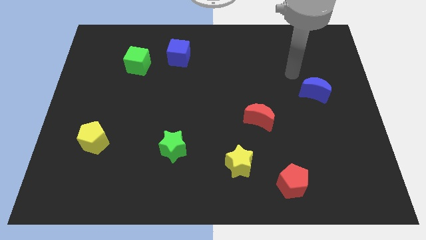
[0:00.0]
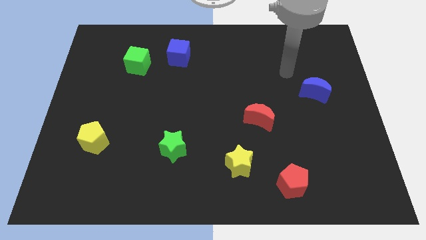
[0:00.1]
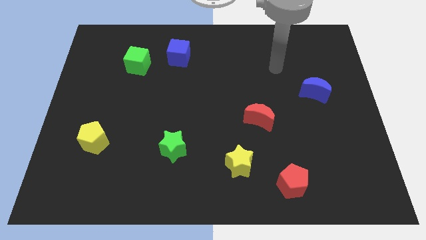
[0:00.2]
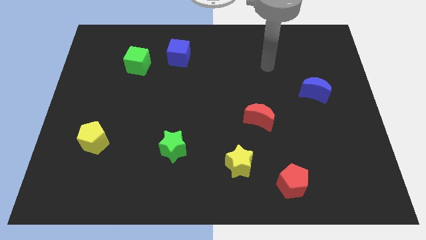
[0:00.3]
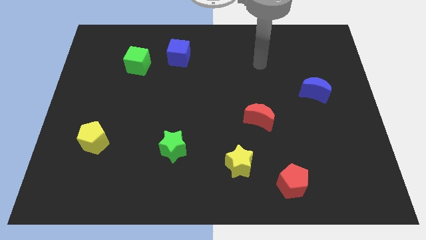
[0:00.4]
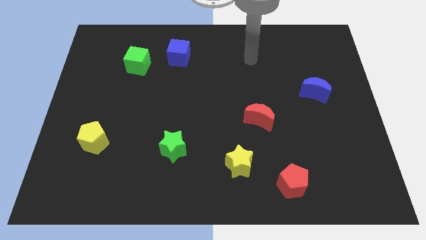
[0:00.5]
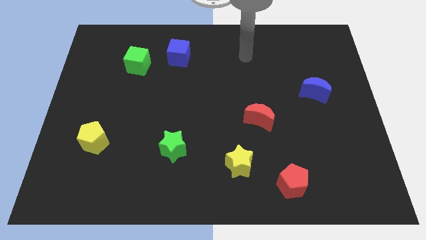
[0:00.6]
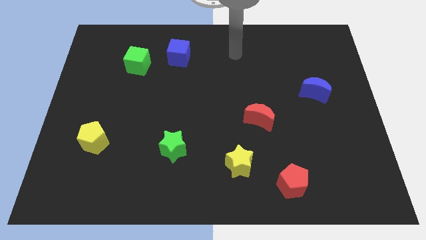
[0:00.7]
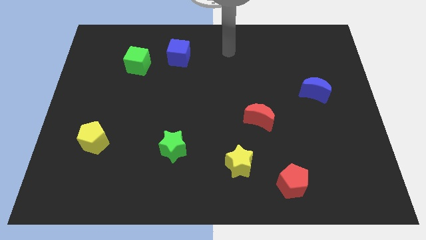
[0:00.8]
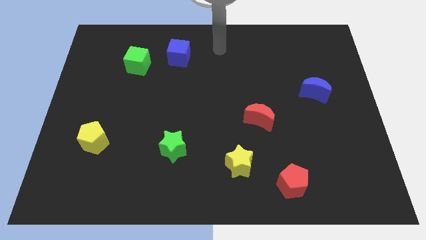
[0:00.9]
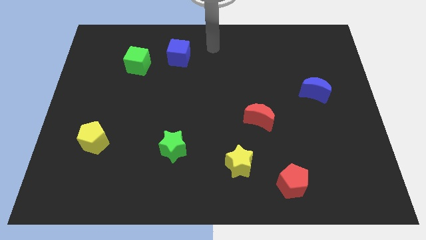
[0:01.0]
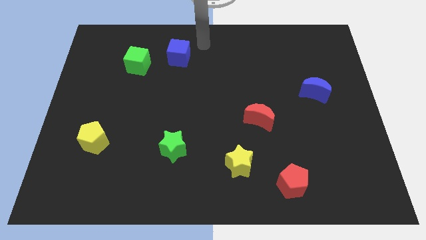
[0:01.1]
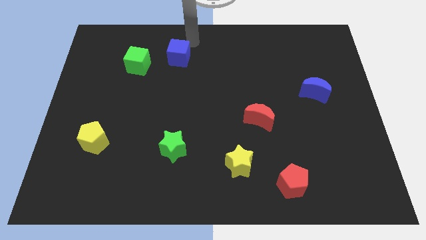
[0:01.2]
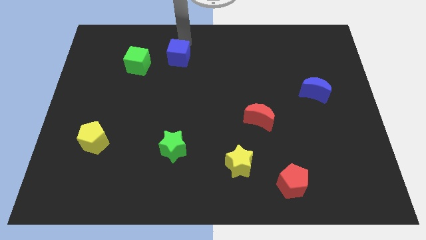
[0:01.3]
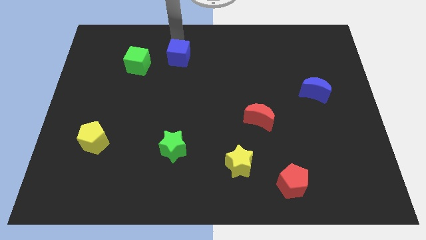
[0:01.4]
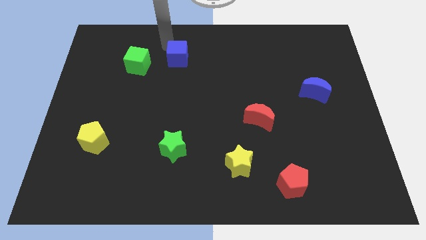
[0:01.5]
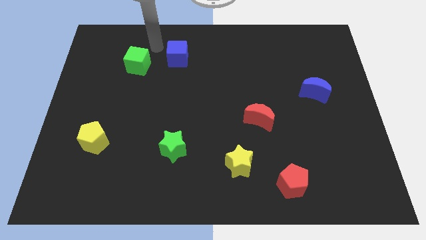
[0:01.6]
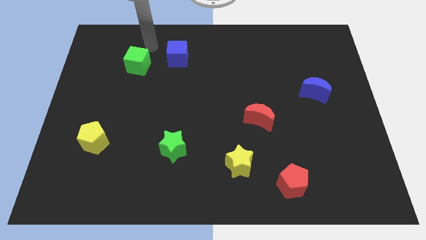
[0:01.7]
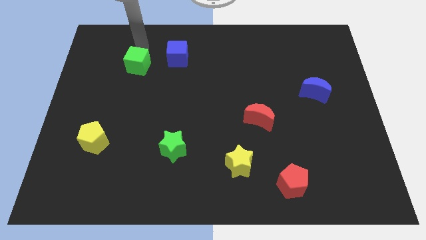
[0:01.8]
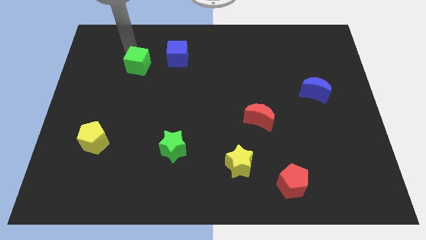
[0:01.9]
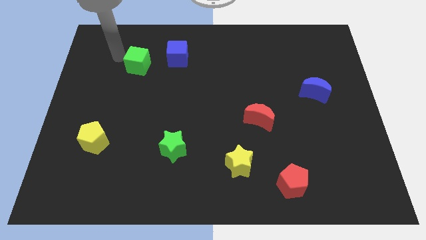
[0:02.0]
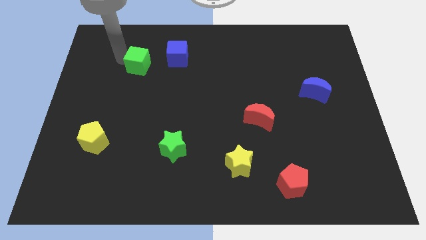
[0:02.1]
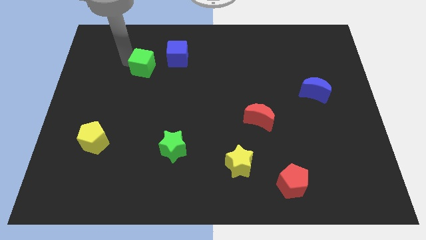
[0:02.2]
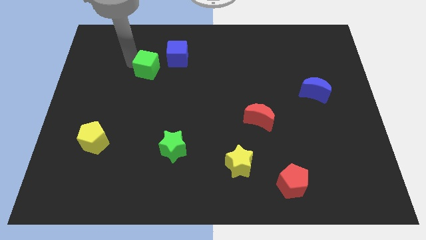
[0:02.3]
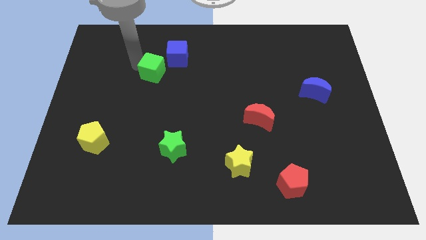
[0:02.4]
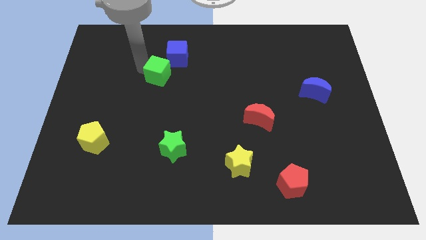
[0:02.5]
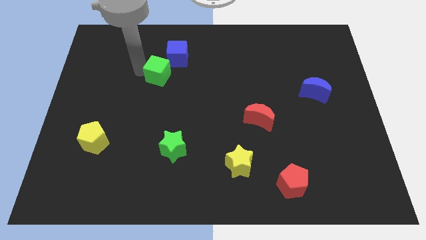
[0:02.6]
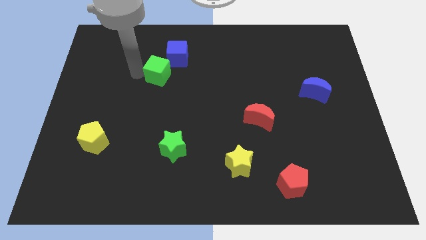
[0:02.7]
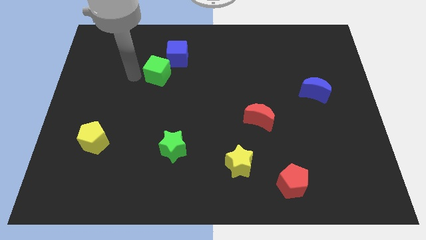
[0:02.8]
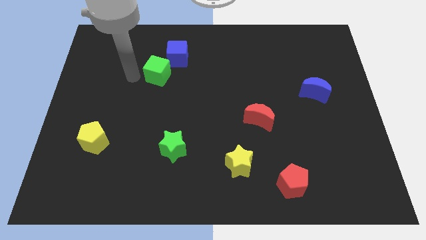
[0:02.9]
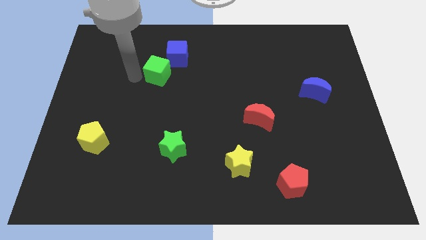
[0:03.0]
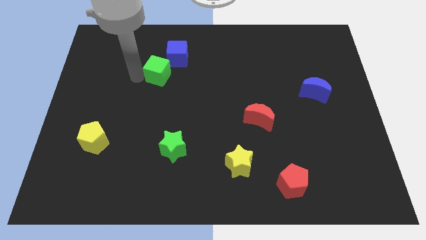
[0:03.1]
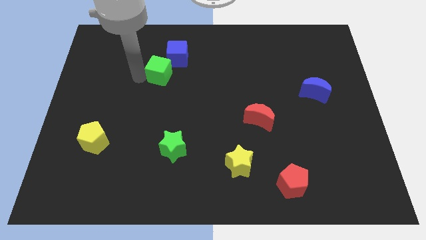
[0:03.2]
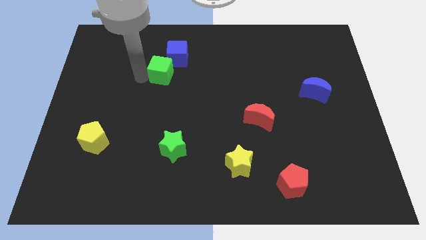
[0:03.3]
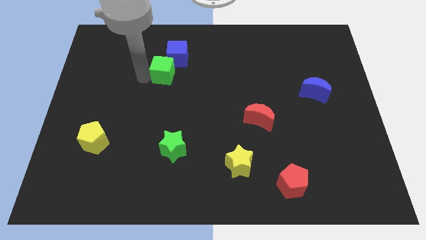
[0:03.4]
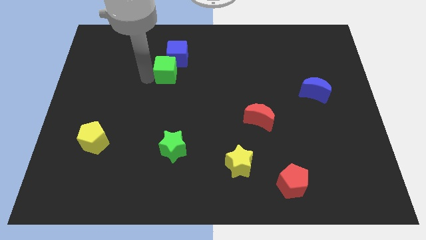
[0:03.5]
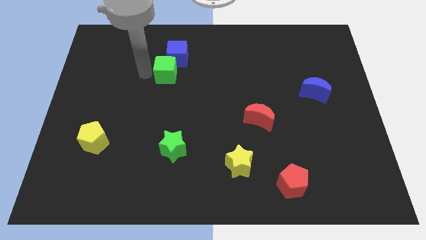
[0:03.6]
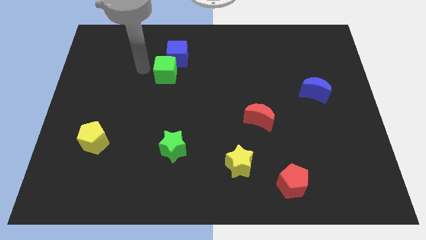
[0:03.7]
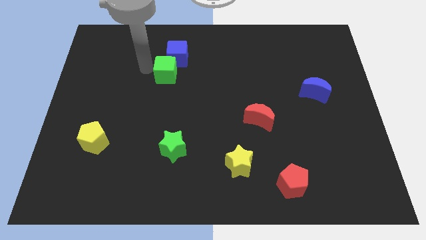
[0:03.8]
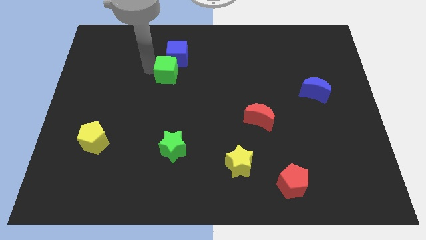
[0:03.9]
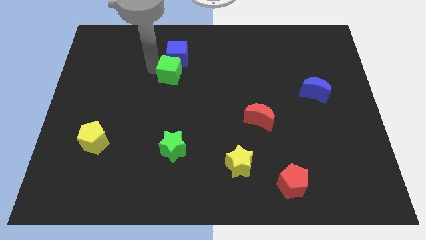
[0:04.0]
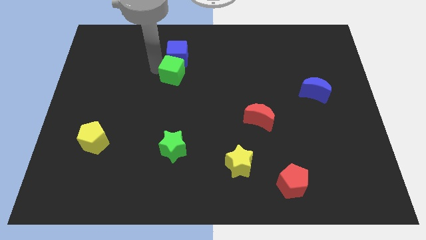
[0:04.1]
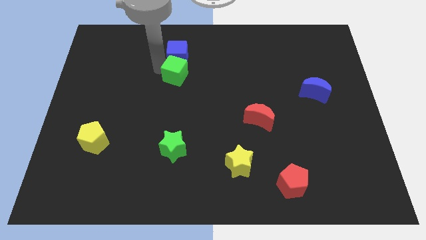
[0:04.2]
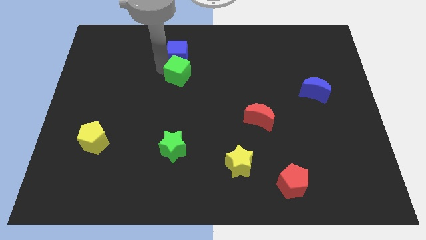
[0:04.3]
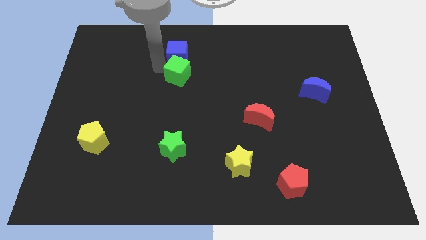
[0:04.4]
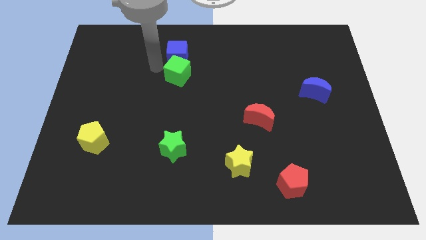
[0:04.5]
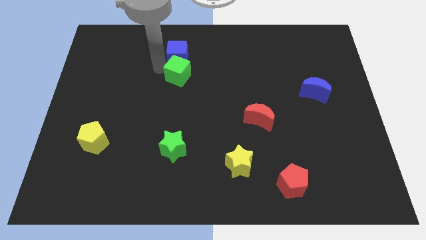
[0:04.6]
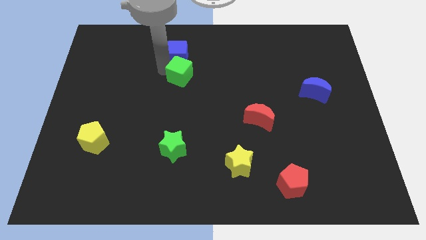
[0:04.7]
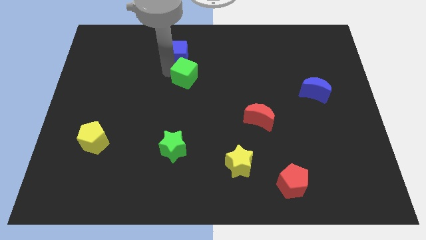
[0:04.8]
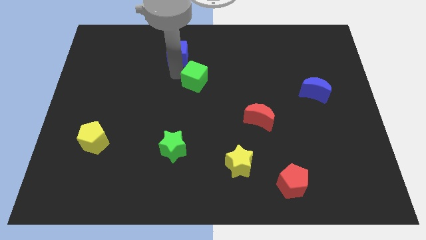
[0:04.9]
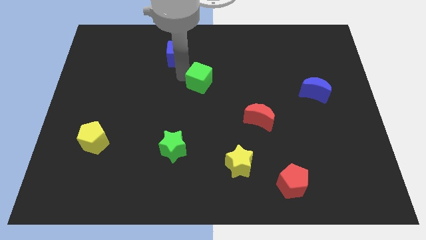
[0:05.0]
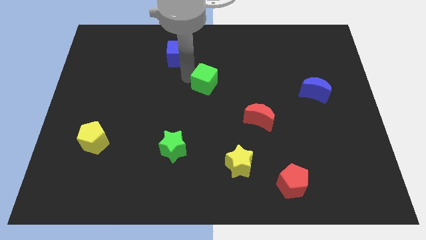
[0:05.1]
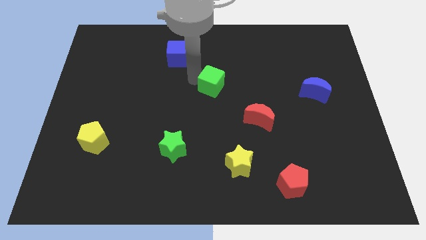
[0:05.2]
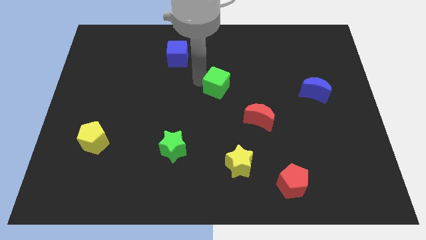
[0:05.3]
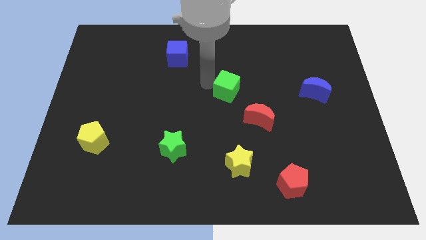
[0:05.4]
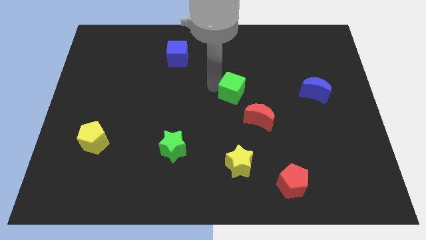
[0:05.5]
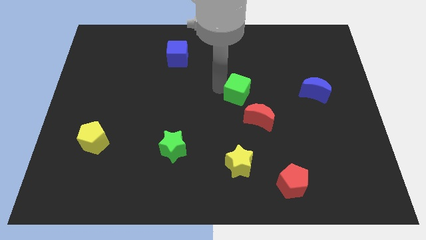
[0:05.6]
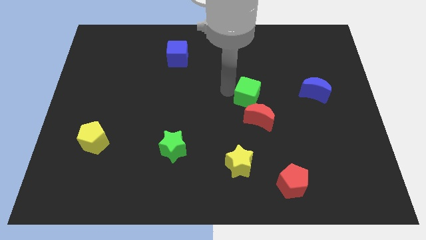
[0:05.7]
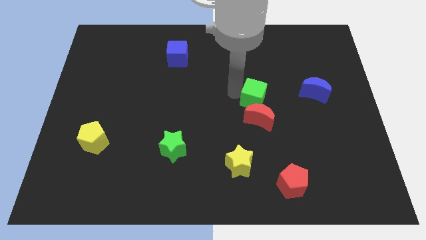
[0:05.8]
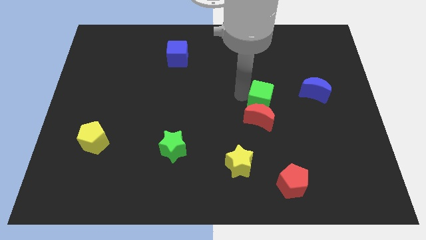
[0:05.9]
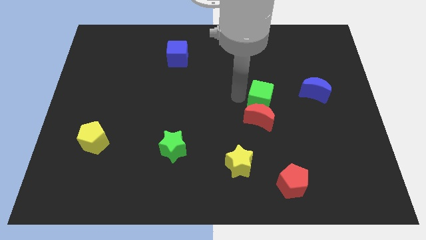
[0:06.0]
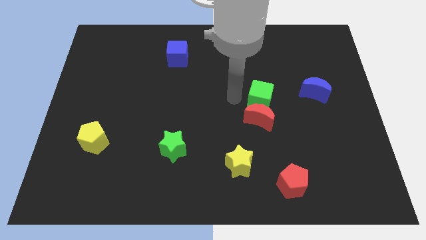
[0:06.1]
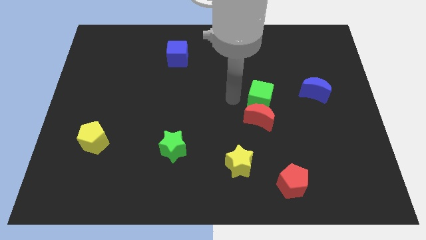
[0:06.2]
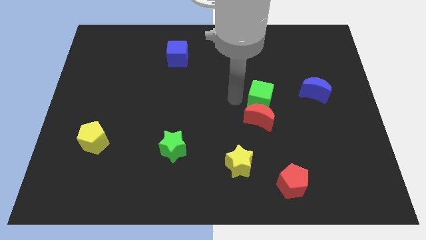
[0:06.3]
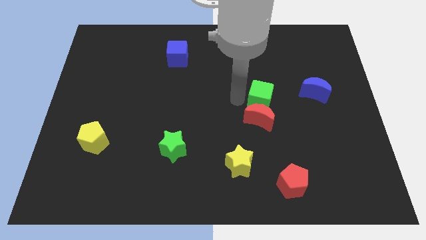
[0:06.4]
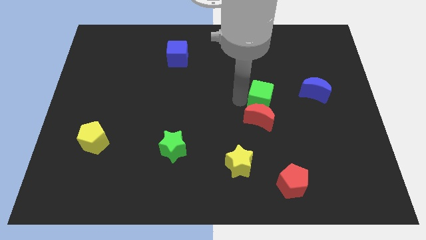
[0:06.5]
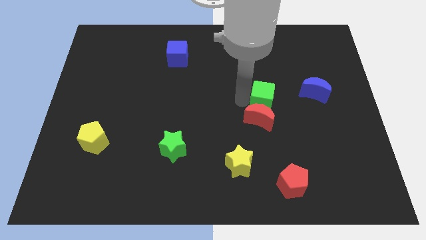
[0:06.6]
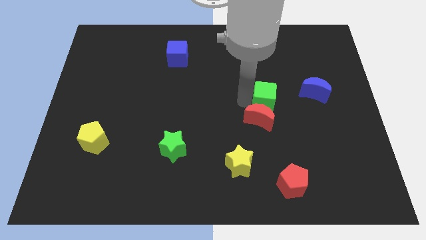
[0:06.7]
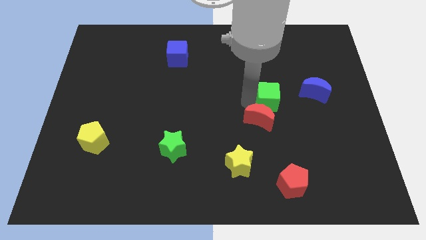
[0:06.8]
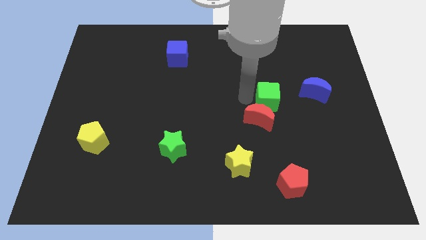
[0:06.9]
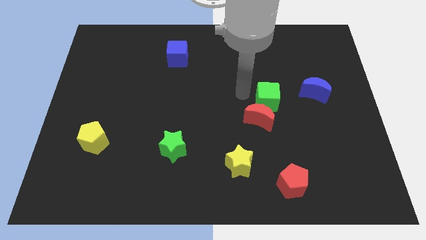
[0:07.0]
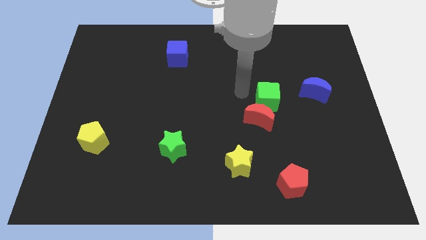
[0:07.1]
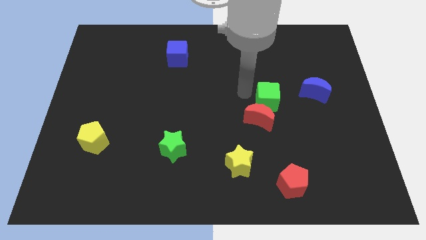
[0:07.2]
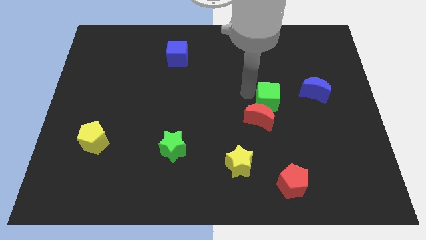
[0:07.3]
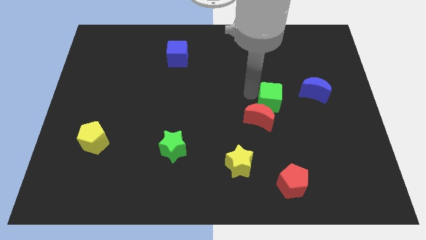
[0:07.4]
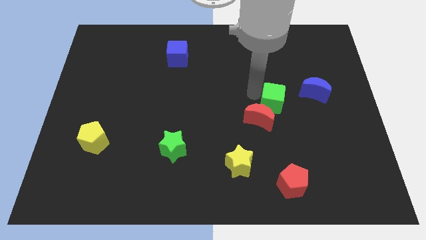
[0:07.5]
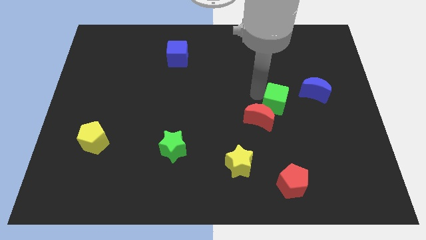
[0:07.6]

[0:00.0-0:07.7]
put the green cube to the bottom left of the blue moon
